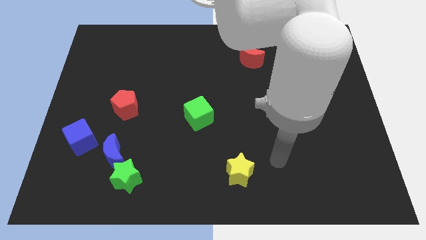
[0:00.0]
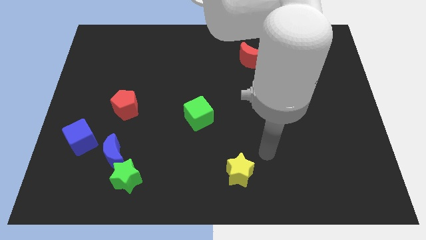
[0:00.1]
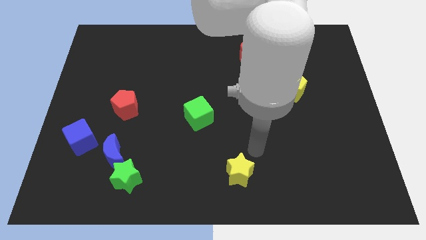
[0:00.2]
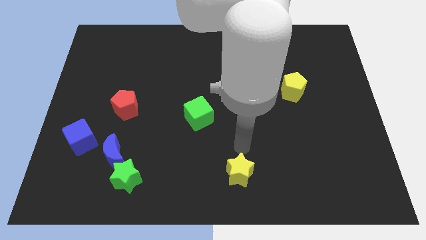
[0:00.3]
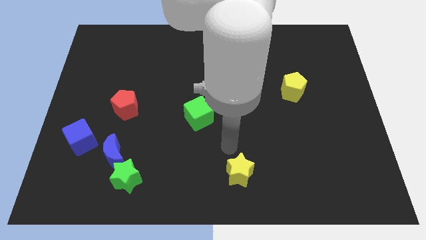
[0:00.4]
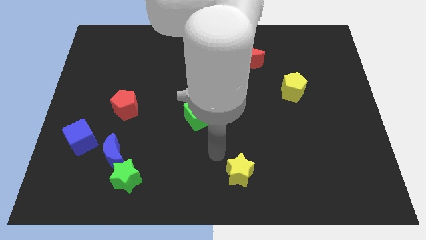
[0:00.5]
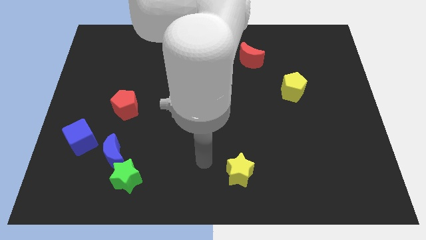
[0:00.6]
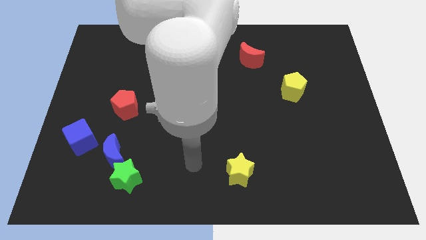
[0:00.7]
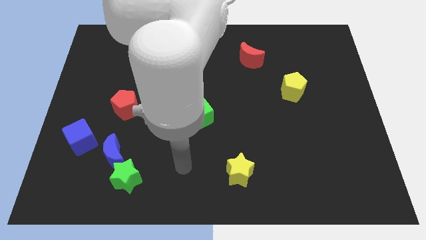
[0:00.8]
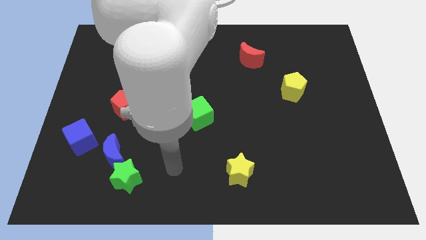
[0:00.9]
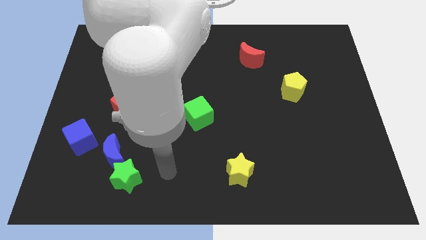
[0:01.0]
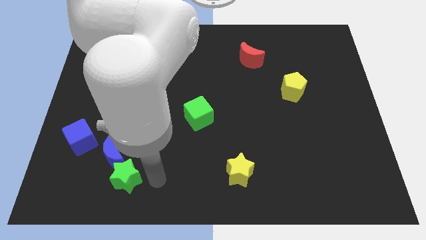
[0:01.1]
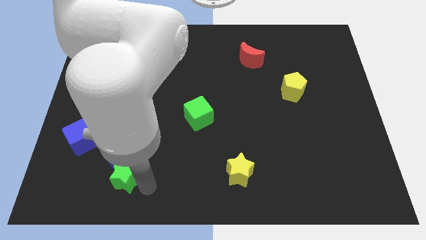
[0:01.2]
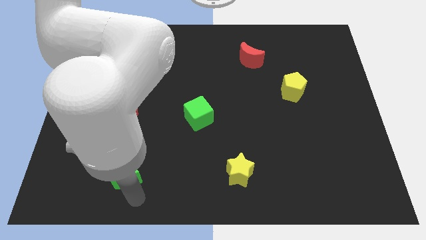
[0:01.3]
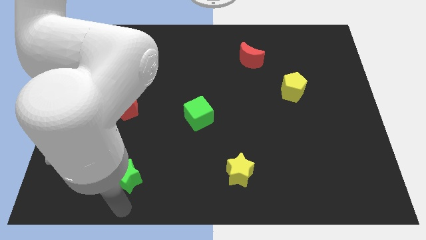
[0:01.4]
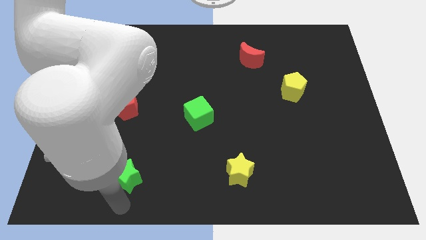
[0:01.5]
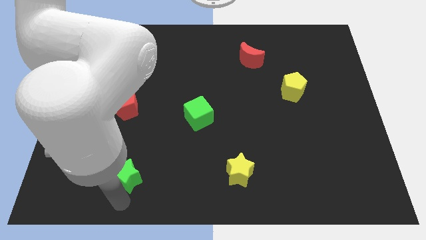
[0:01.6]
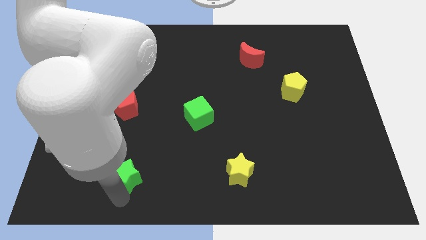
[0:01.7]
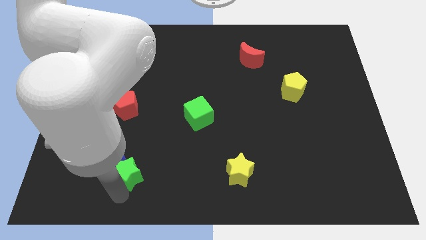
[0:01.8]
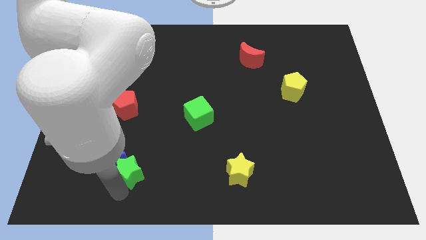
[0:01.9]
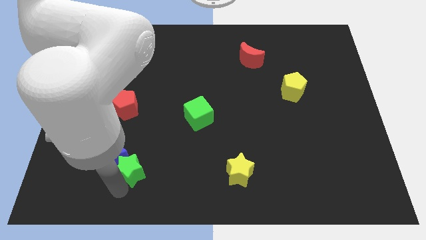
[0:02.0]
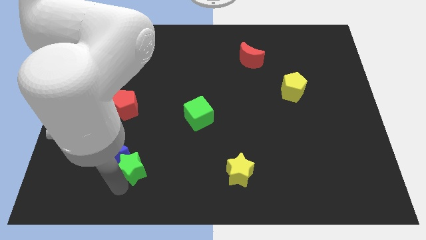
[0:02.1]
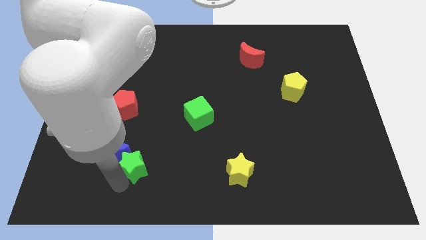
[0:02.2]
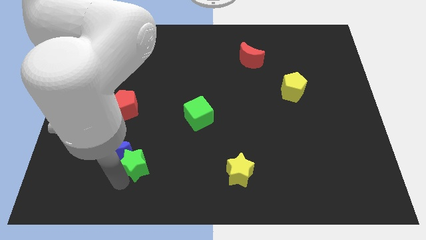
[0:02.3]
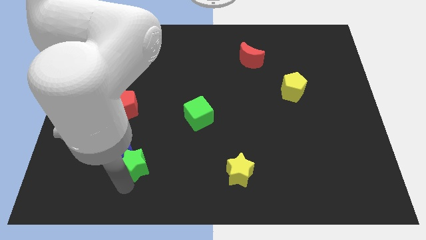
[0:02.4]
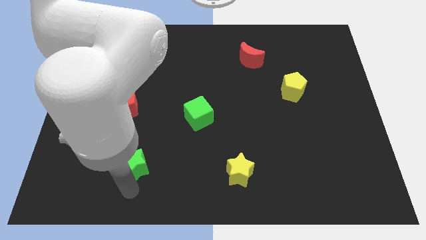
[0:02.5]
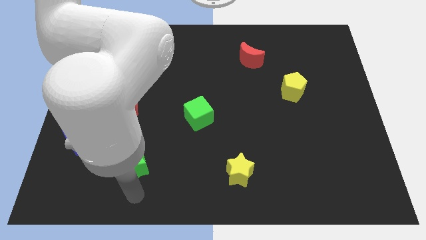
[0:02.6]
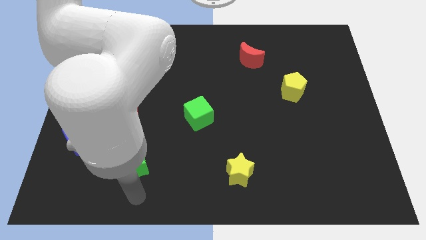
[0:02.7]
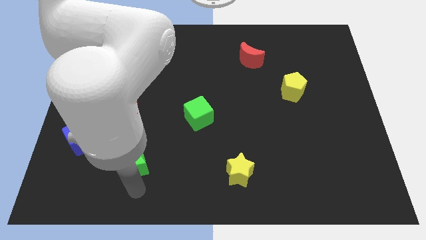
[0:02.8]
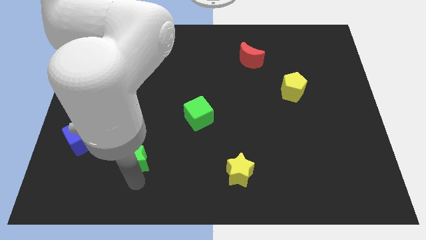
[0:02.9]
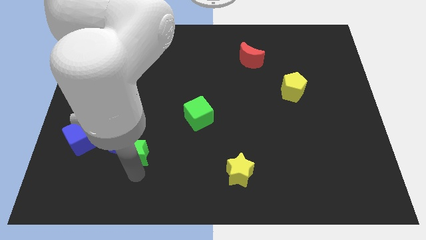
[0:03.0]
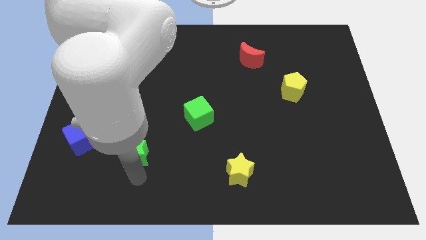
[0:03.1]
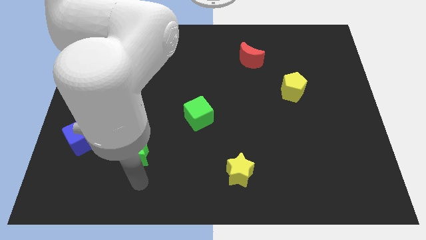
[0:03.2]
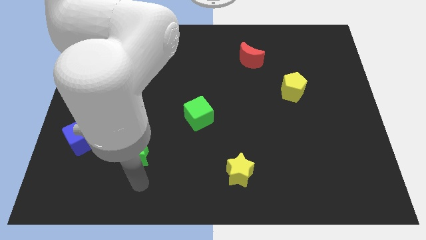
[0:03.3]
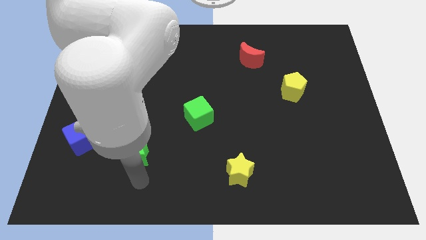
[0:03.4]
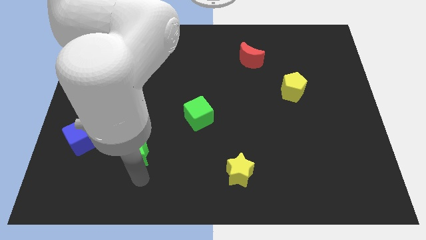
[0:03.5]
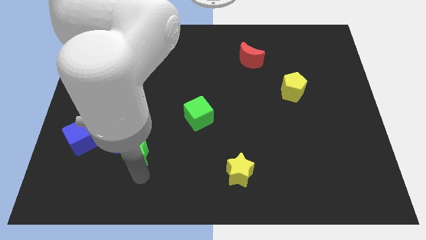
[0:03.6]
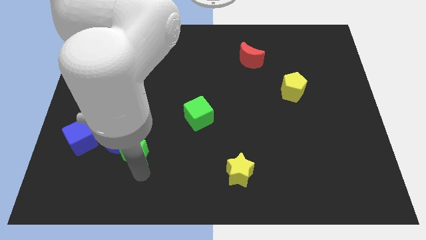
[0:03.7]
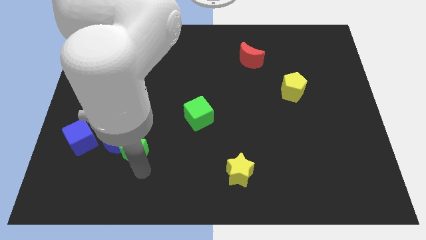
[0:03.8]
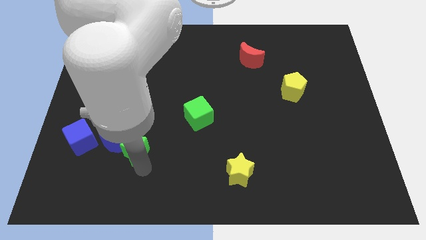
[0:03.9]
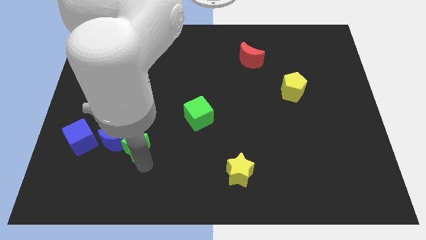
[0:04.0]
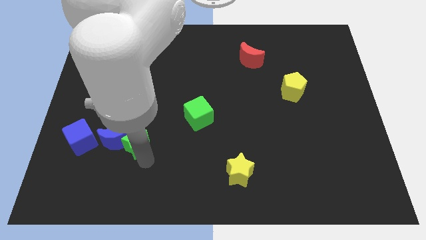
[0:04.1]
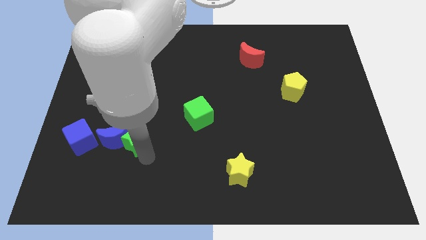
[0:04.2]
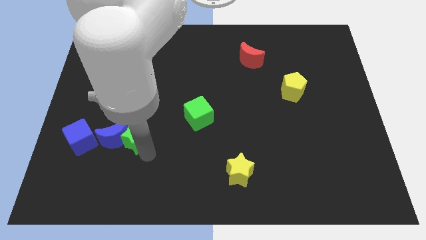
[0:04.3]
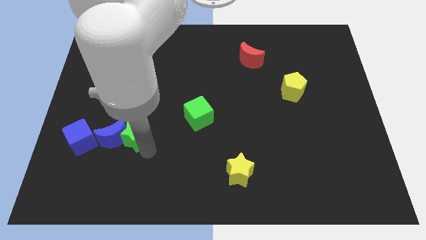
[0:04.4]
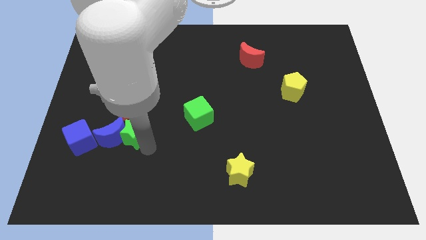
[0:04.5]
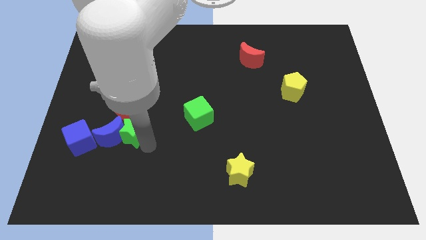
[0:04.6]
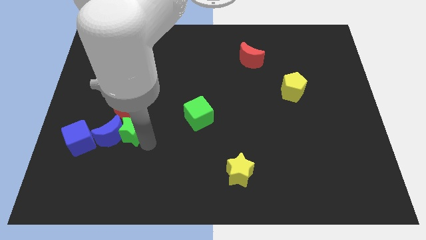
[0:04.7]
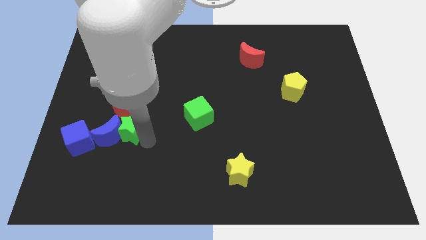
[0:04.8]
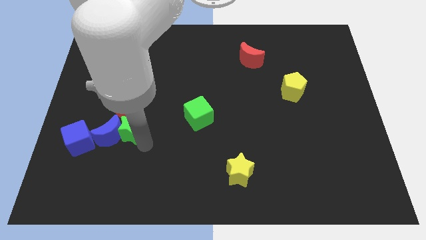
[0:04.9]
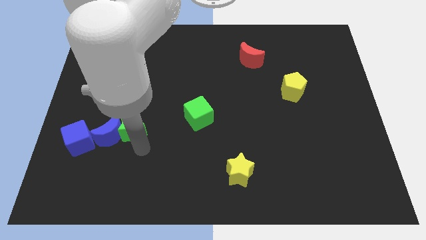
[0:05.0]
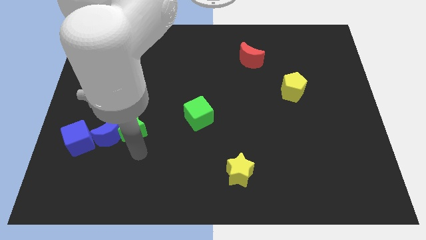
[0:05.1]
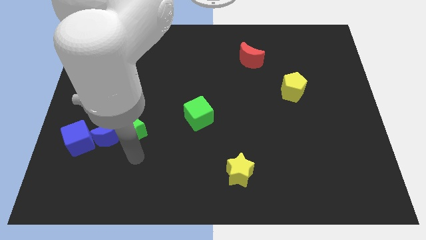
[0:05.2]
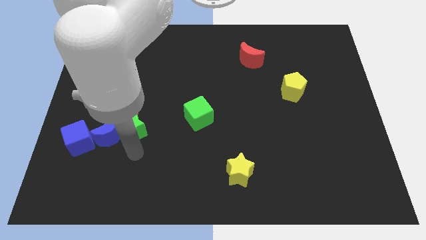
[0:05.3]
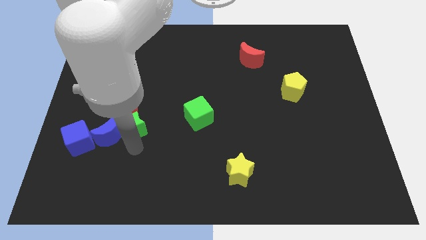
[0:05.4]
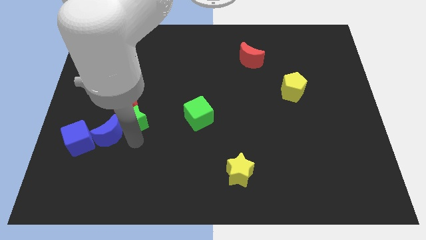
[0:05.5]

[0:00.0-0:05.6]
put the green star to the red pentagon

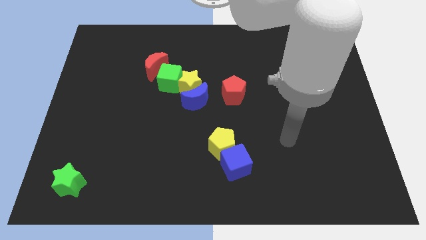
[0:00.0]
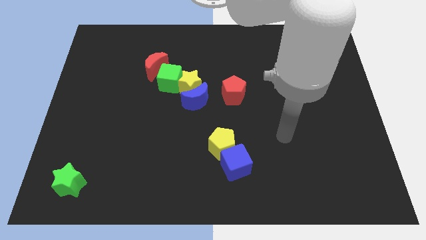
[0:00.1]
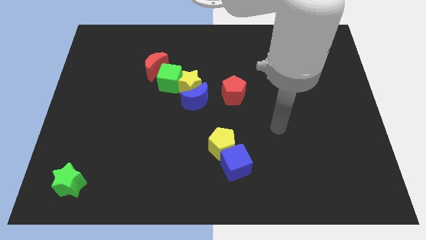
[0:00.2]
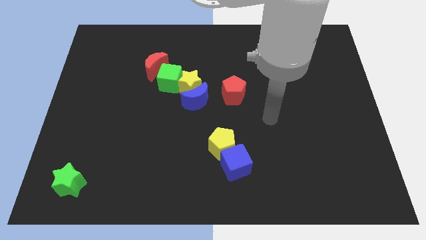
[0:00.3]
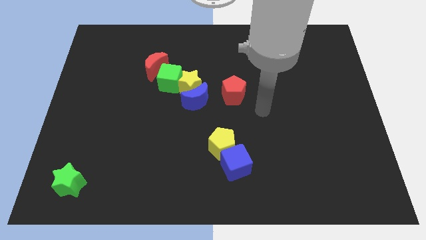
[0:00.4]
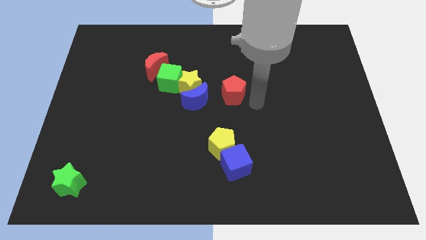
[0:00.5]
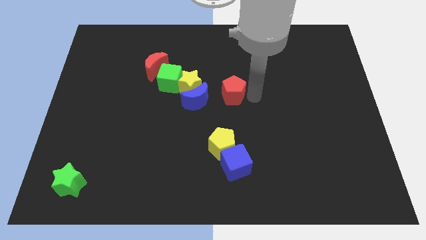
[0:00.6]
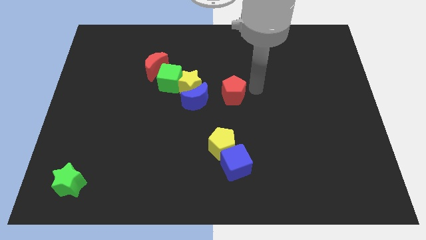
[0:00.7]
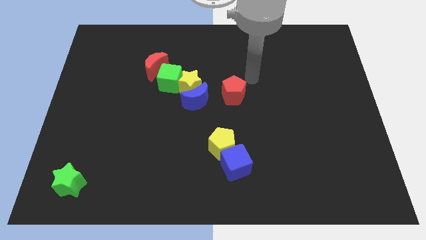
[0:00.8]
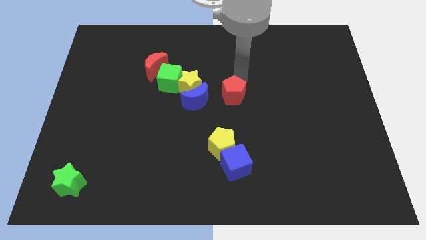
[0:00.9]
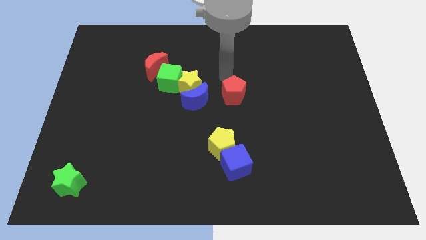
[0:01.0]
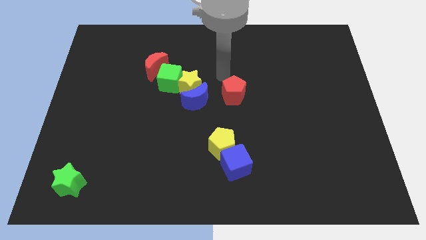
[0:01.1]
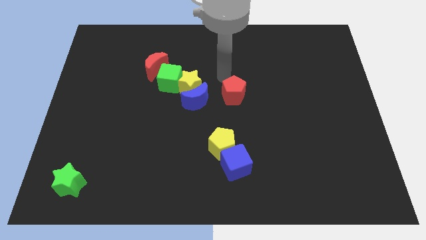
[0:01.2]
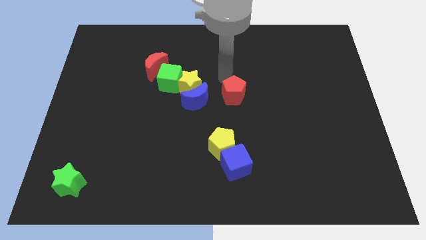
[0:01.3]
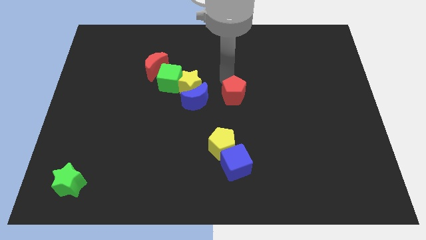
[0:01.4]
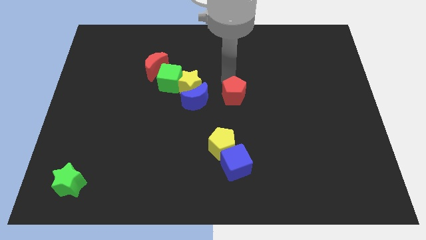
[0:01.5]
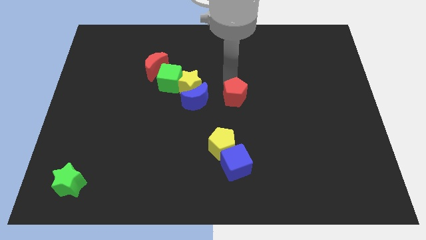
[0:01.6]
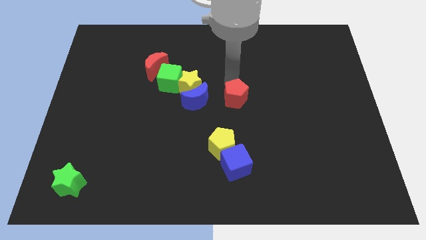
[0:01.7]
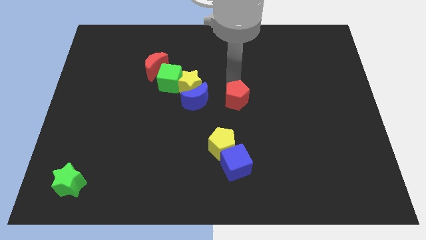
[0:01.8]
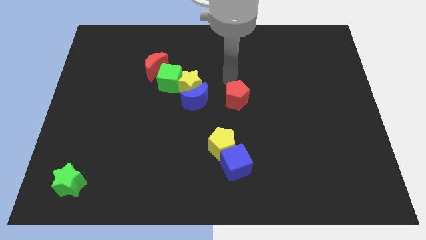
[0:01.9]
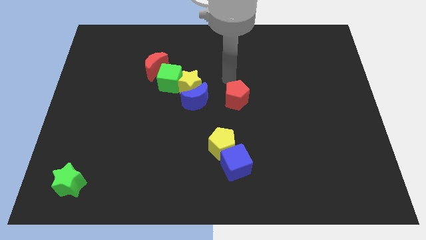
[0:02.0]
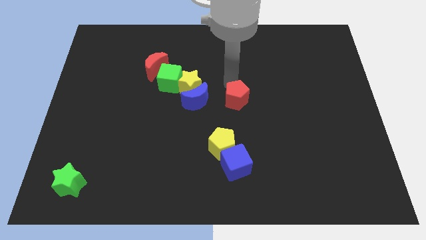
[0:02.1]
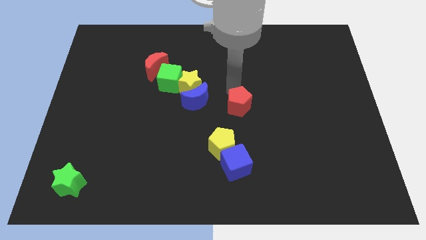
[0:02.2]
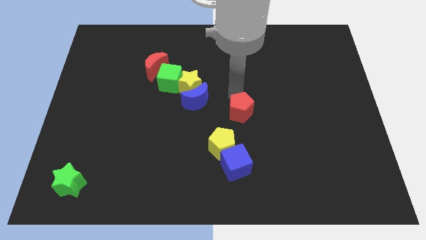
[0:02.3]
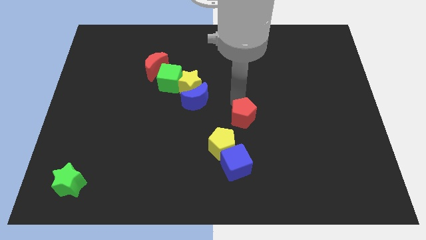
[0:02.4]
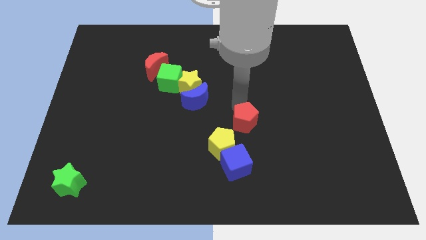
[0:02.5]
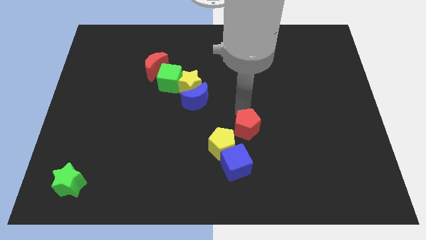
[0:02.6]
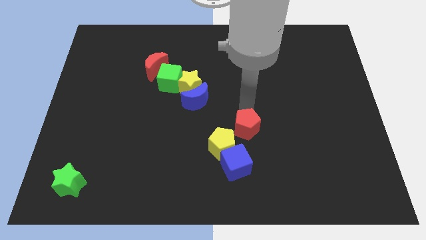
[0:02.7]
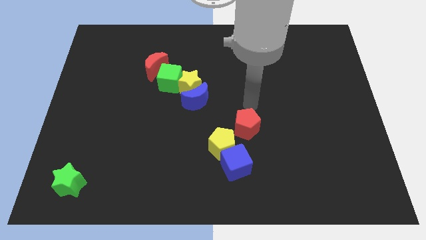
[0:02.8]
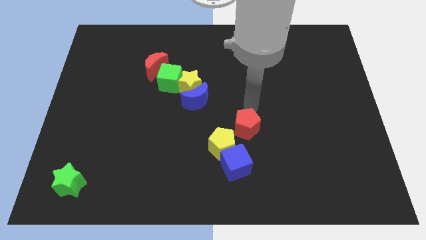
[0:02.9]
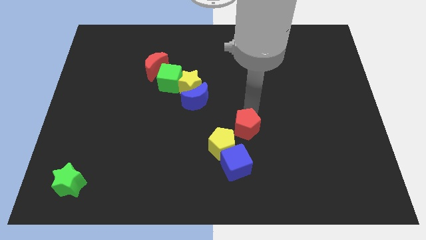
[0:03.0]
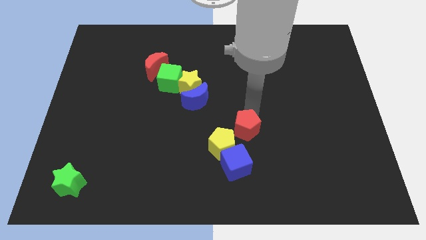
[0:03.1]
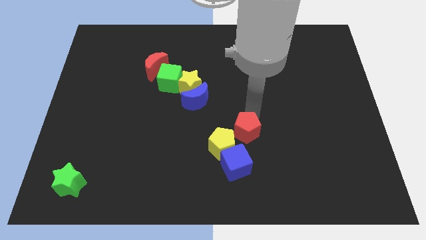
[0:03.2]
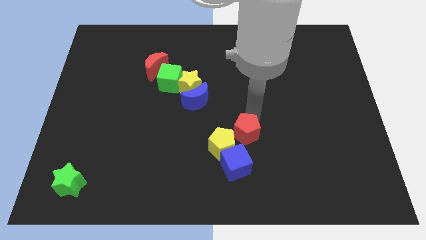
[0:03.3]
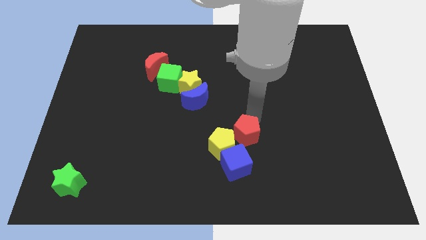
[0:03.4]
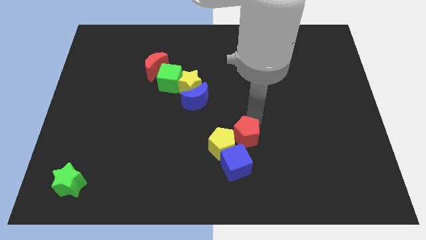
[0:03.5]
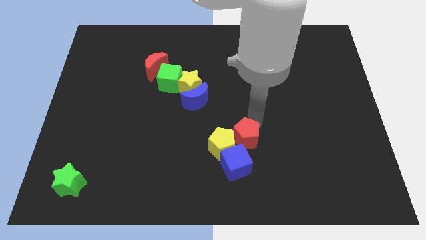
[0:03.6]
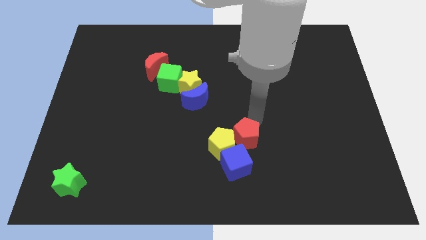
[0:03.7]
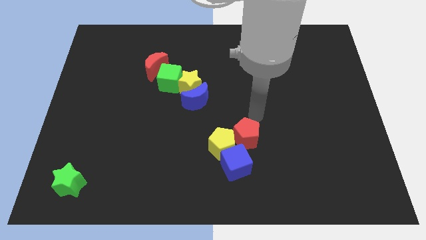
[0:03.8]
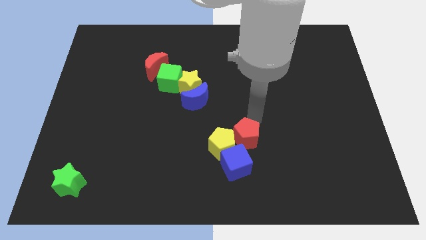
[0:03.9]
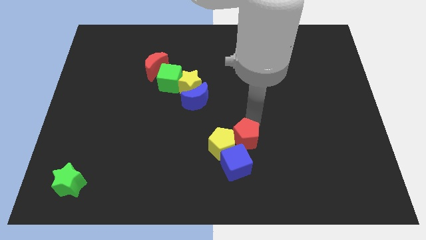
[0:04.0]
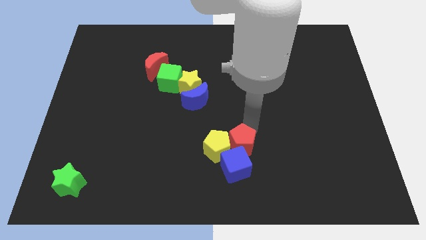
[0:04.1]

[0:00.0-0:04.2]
put the red pentagon to the blue cube
